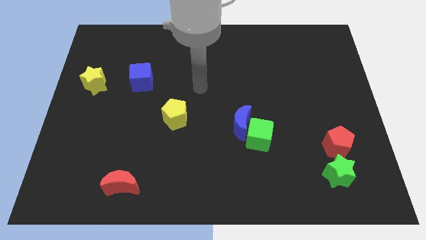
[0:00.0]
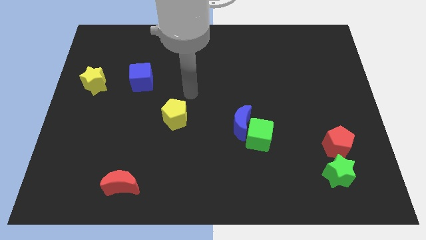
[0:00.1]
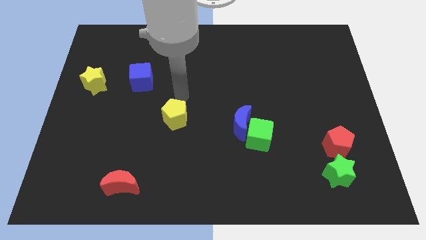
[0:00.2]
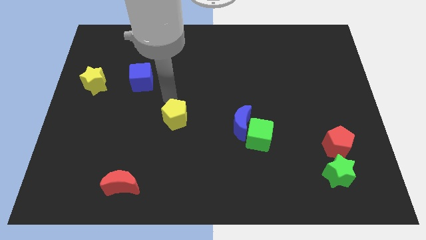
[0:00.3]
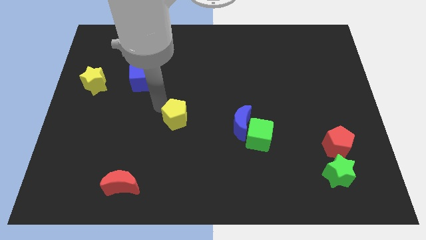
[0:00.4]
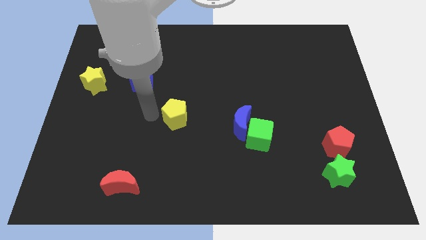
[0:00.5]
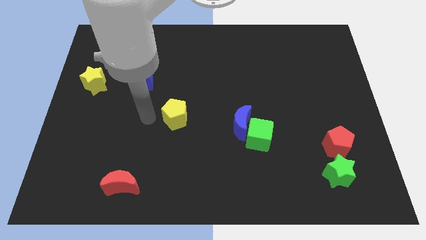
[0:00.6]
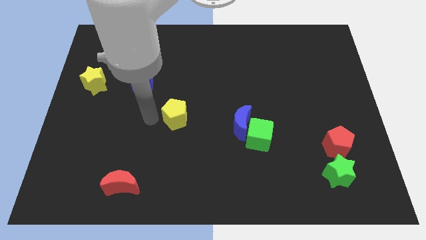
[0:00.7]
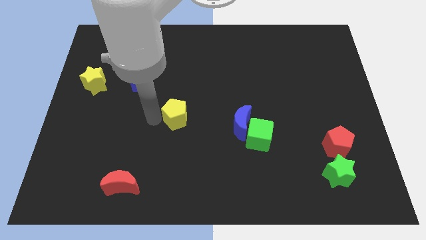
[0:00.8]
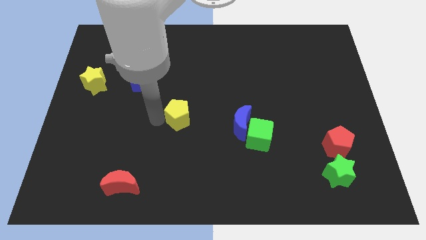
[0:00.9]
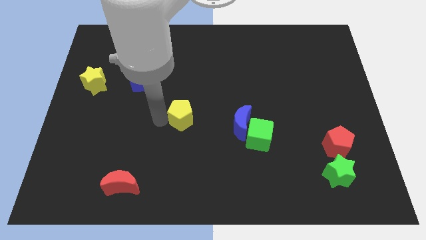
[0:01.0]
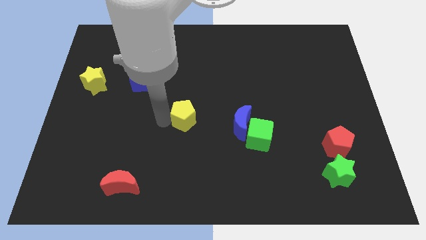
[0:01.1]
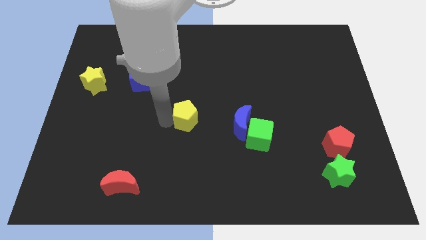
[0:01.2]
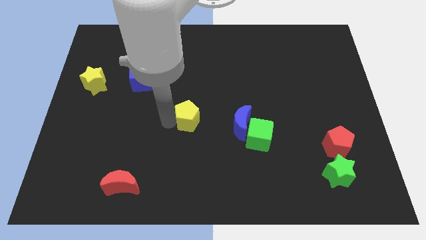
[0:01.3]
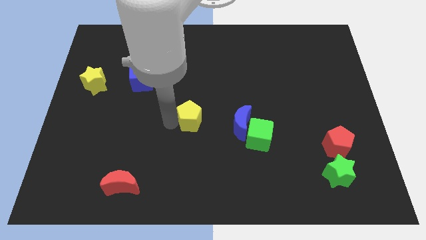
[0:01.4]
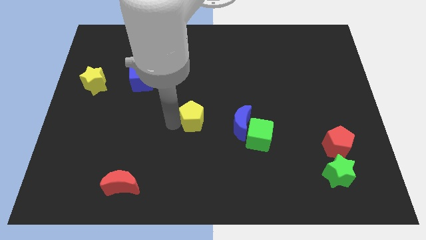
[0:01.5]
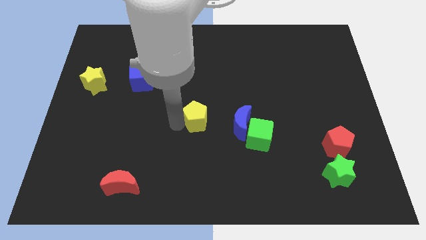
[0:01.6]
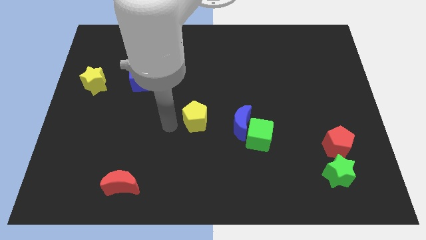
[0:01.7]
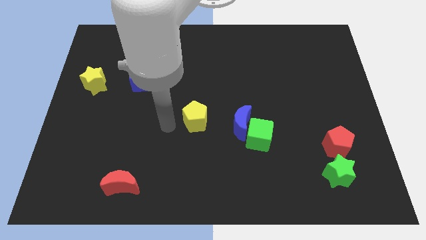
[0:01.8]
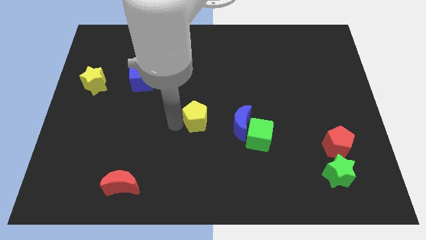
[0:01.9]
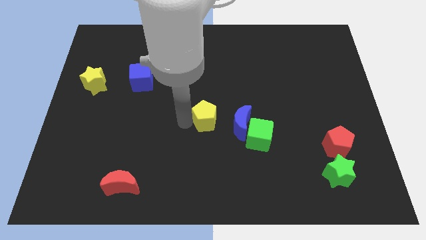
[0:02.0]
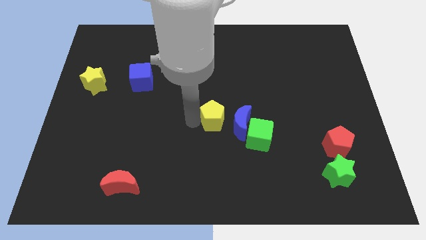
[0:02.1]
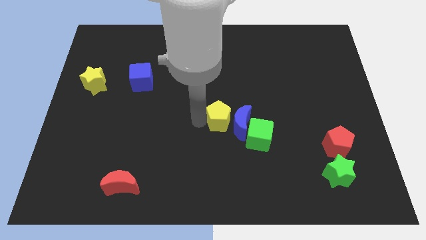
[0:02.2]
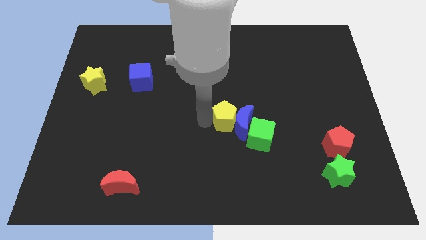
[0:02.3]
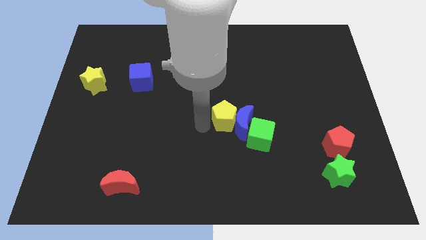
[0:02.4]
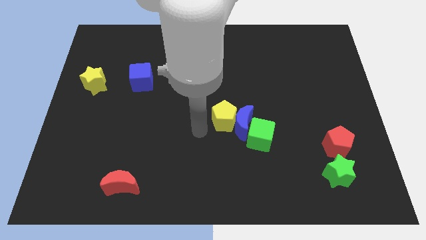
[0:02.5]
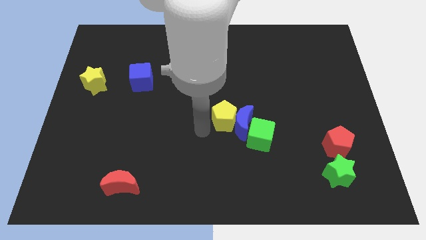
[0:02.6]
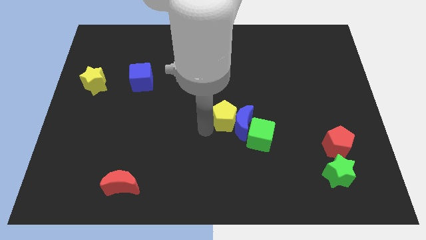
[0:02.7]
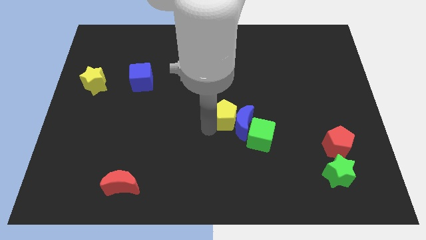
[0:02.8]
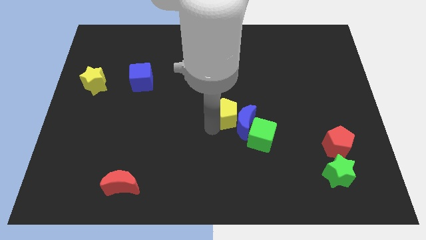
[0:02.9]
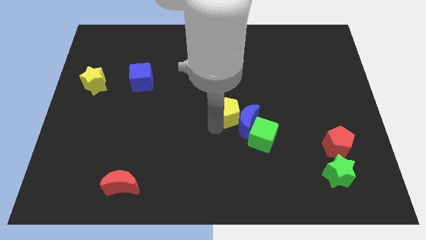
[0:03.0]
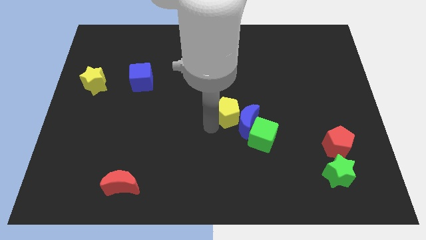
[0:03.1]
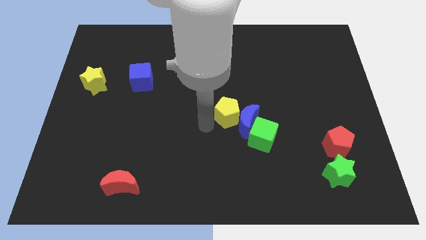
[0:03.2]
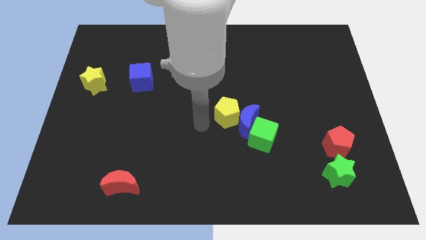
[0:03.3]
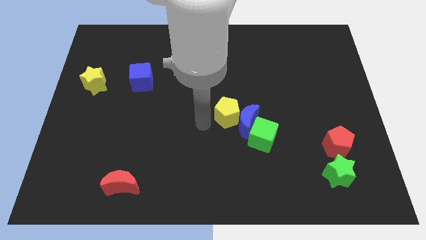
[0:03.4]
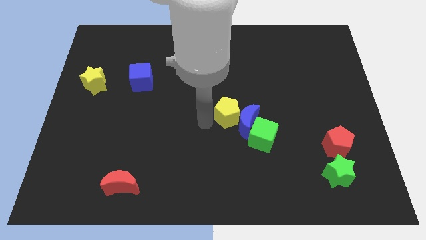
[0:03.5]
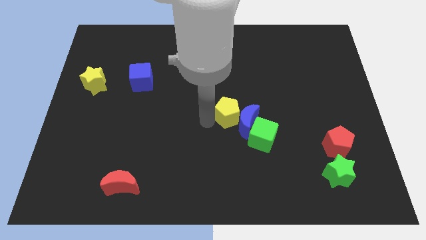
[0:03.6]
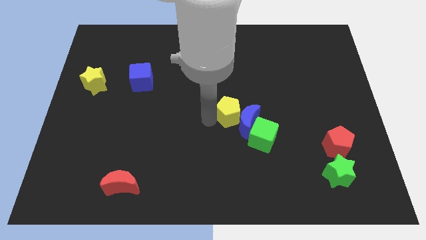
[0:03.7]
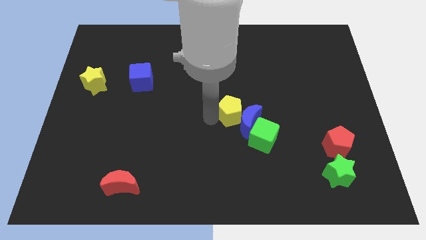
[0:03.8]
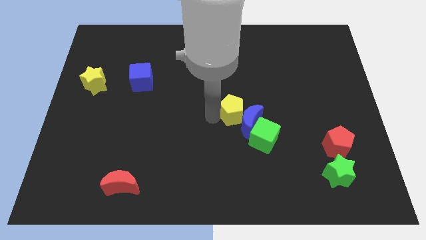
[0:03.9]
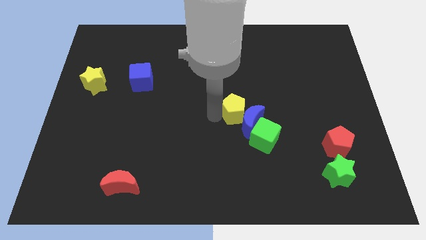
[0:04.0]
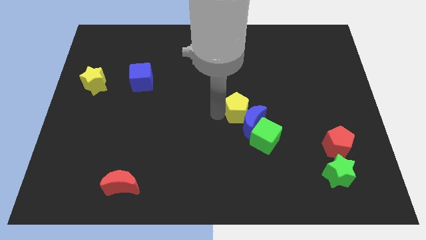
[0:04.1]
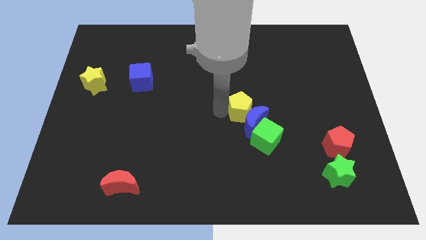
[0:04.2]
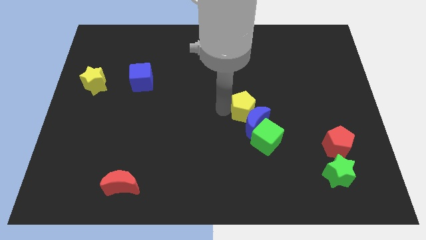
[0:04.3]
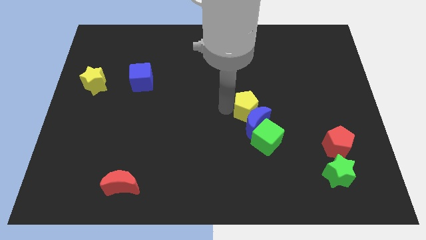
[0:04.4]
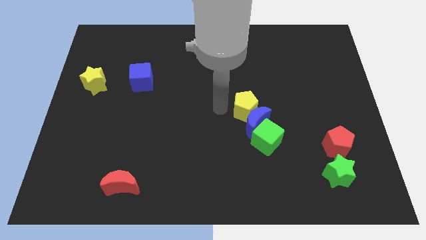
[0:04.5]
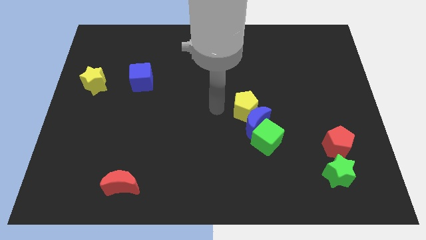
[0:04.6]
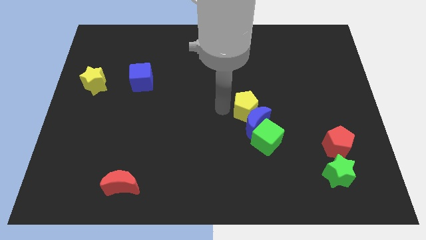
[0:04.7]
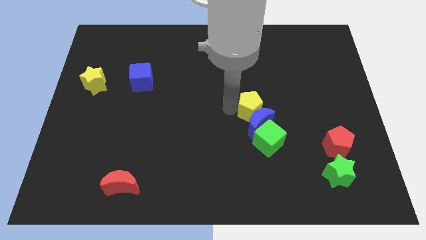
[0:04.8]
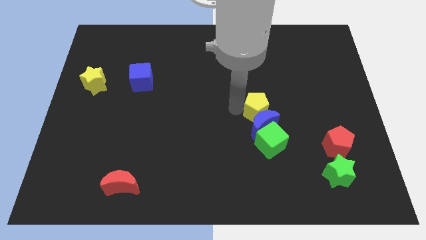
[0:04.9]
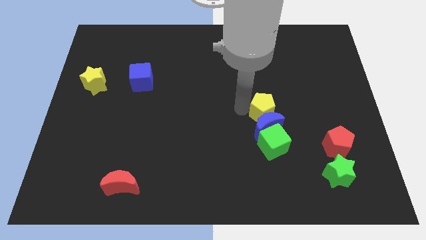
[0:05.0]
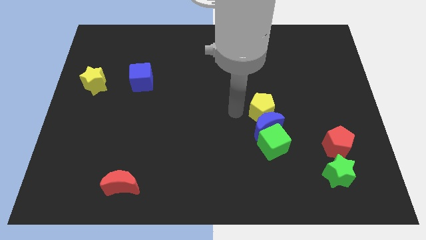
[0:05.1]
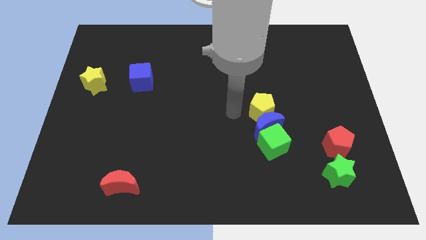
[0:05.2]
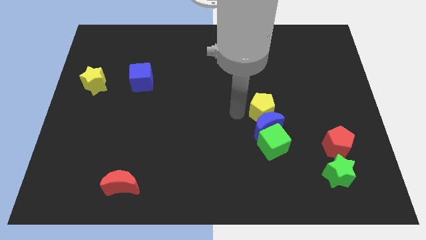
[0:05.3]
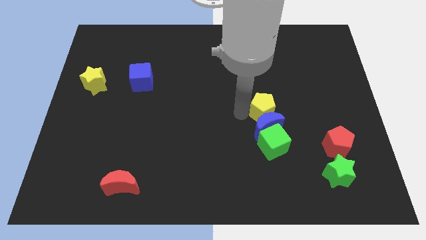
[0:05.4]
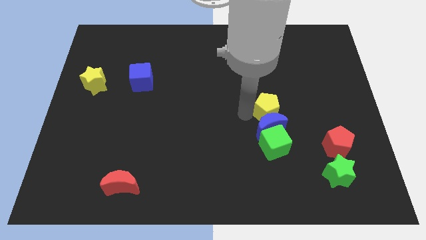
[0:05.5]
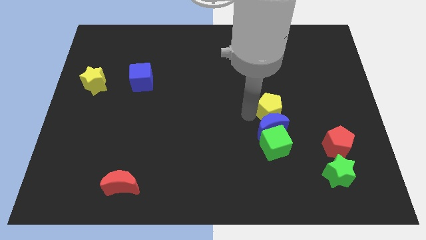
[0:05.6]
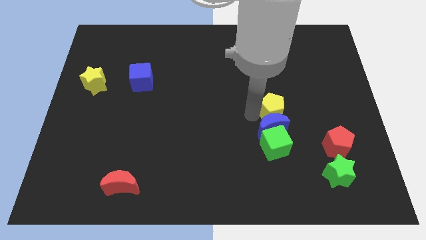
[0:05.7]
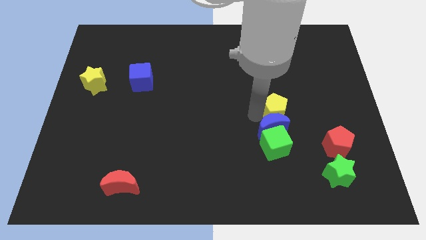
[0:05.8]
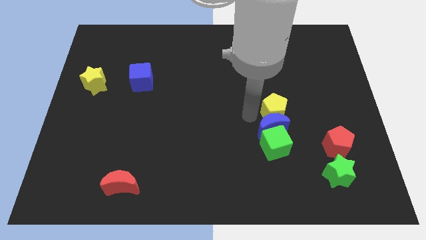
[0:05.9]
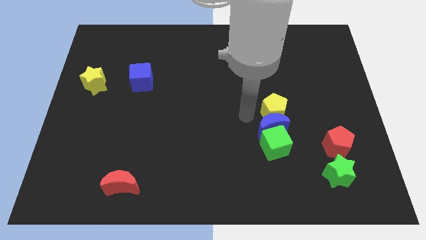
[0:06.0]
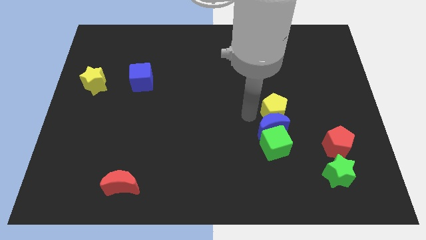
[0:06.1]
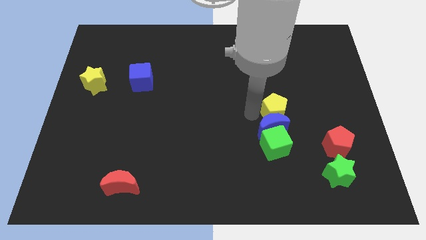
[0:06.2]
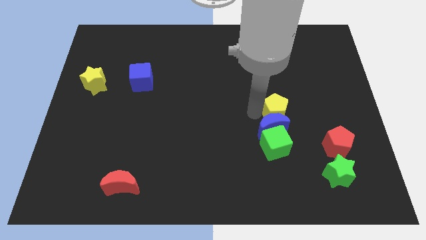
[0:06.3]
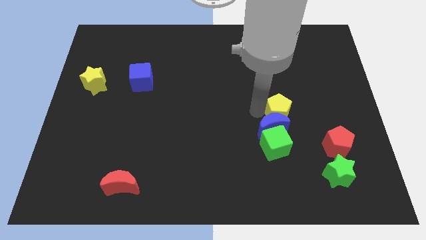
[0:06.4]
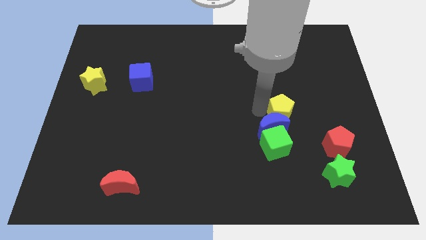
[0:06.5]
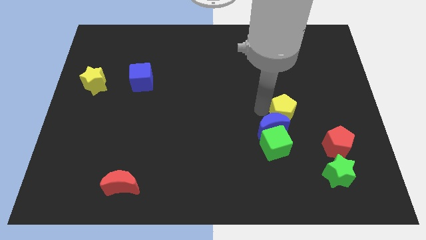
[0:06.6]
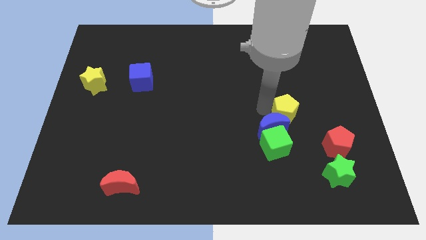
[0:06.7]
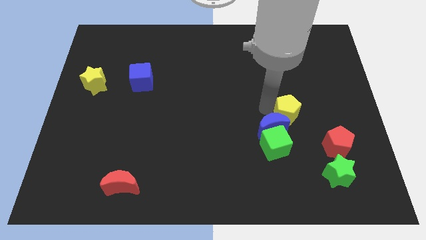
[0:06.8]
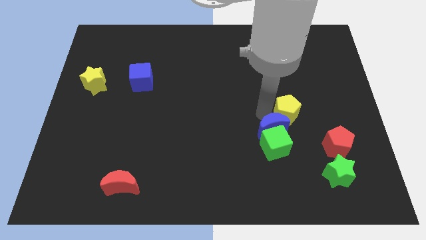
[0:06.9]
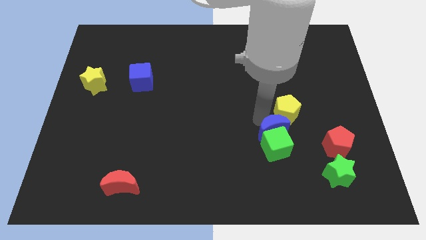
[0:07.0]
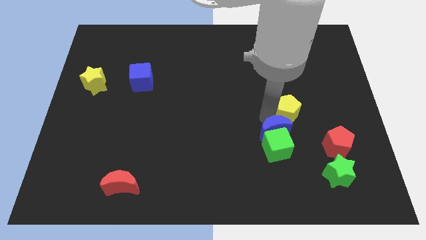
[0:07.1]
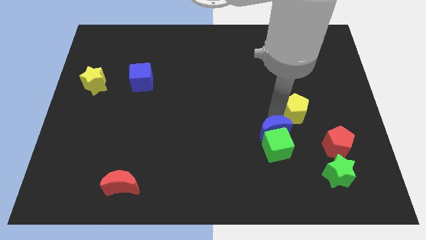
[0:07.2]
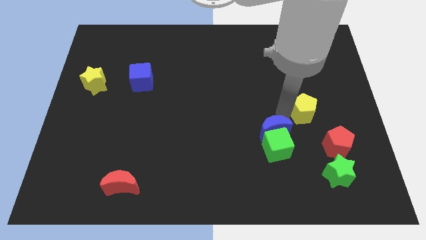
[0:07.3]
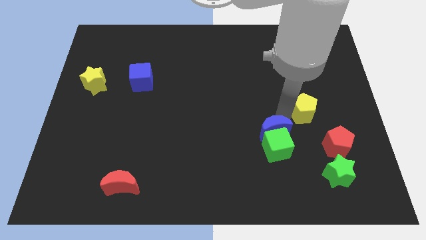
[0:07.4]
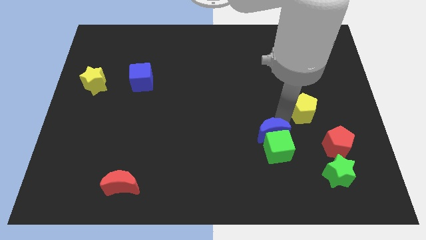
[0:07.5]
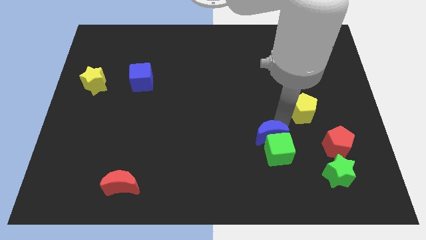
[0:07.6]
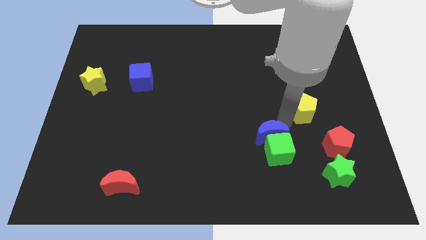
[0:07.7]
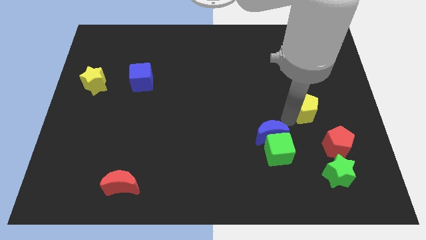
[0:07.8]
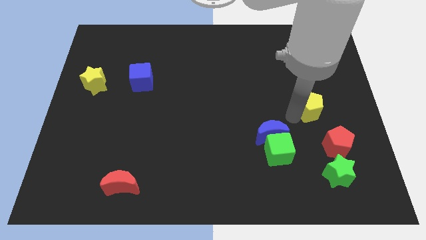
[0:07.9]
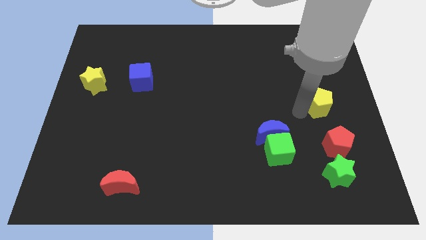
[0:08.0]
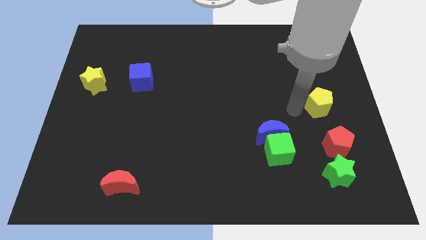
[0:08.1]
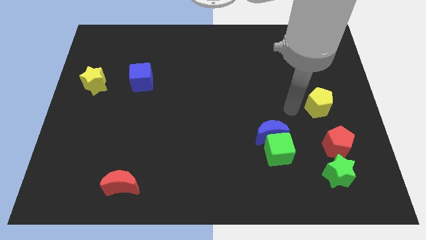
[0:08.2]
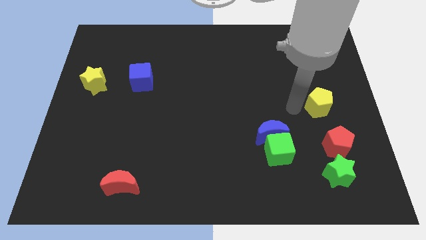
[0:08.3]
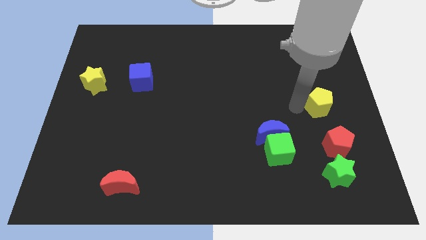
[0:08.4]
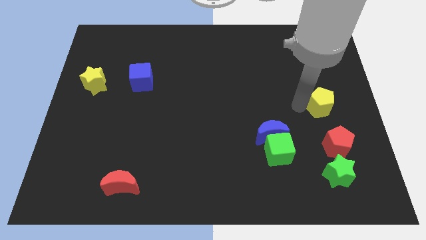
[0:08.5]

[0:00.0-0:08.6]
push the yellow pentagon to the right side
